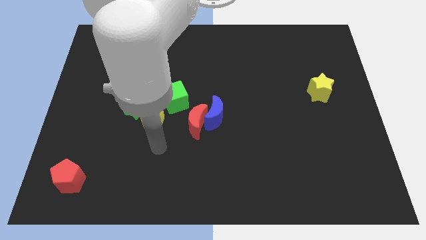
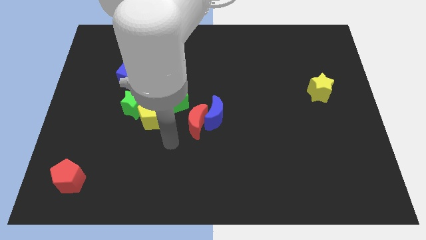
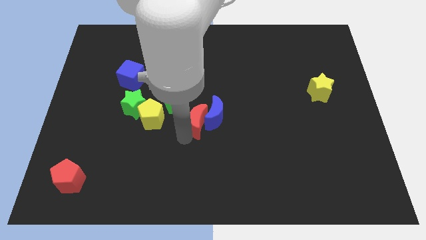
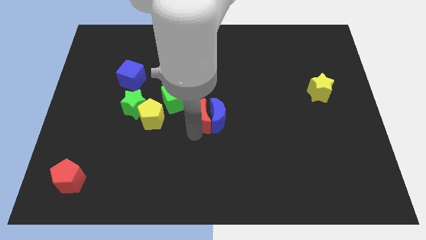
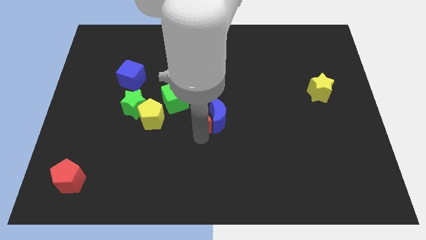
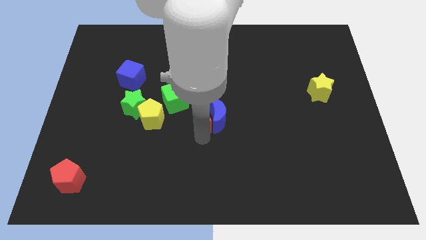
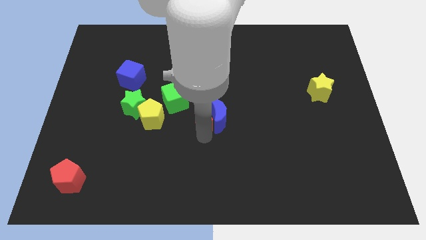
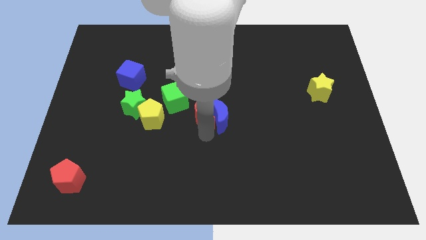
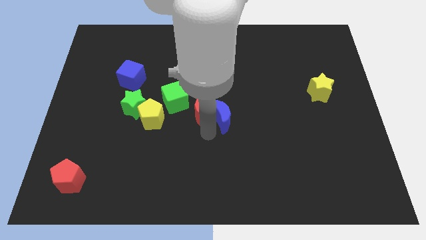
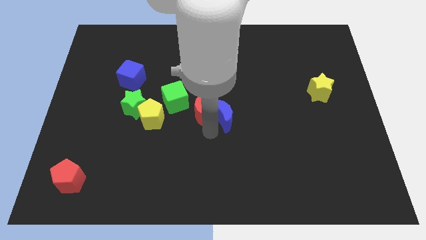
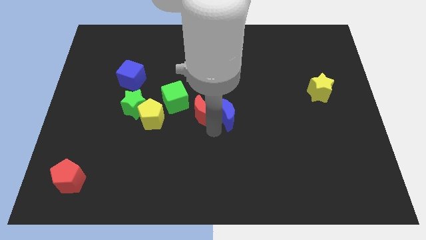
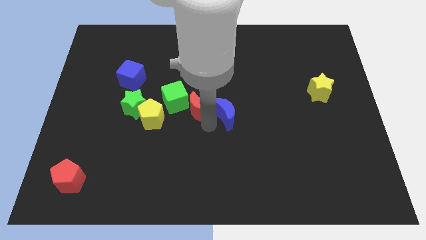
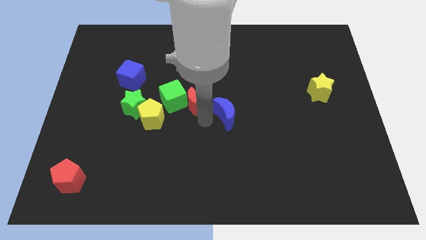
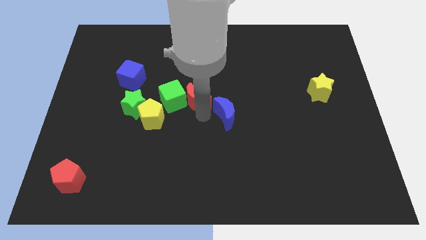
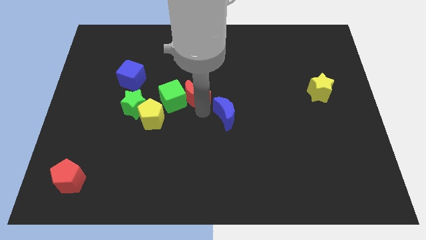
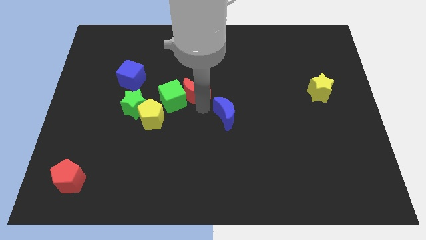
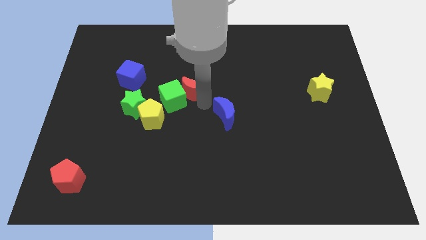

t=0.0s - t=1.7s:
separate the blue moon from the red moon

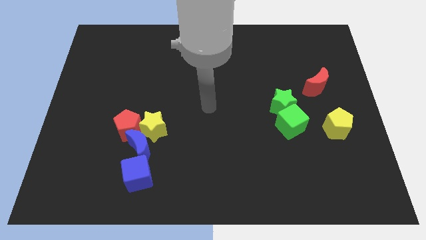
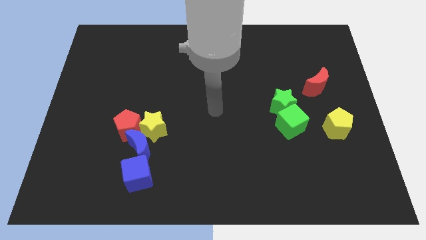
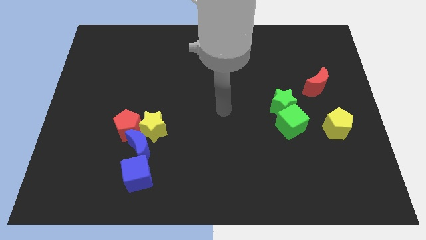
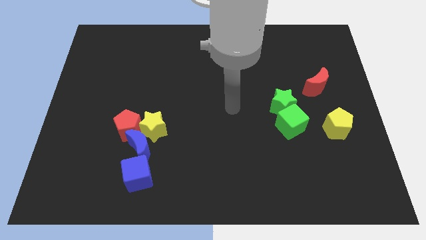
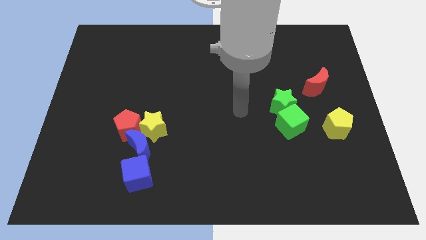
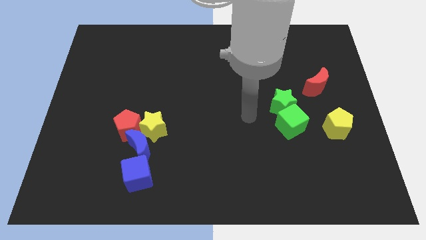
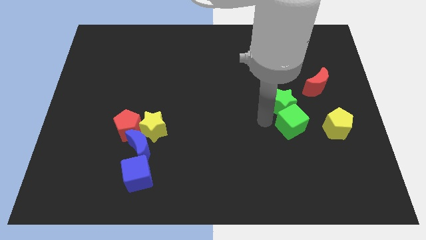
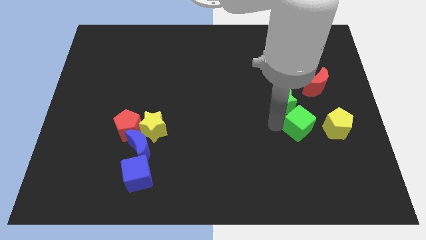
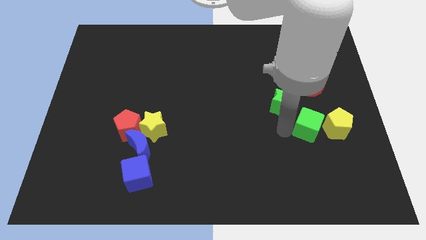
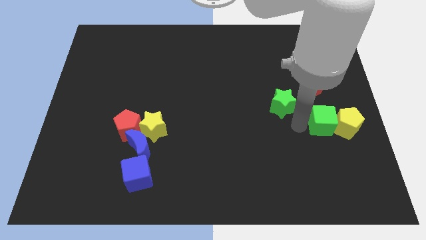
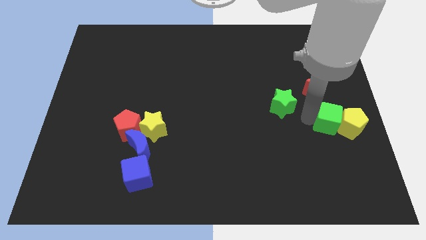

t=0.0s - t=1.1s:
pull the green star apart from the green cube

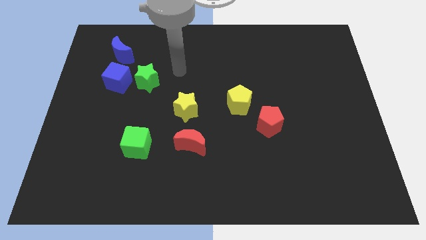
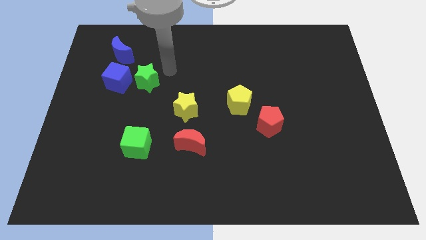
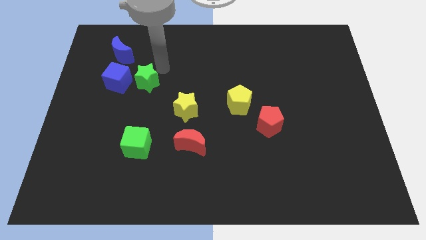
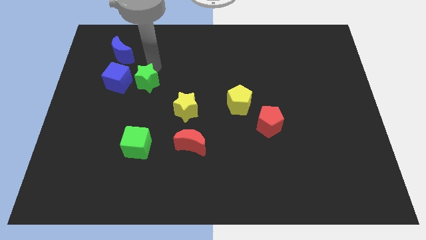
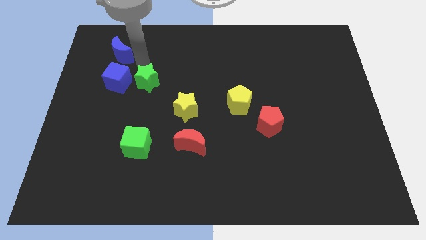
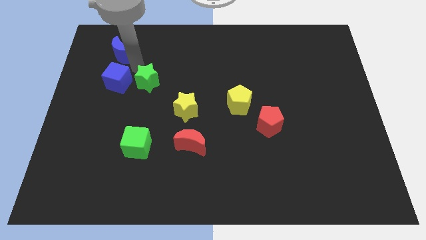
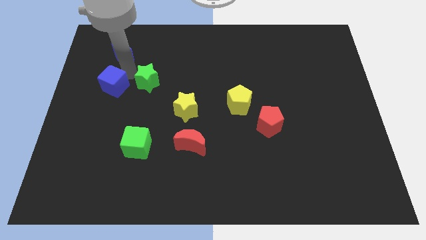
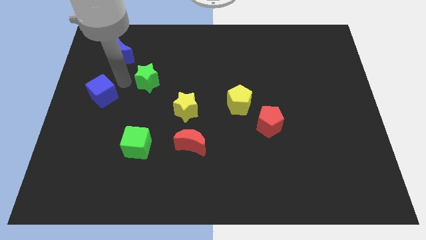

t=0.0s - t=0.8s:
separate the green star from the blue cube

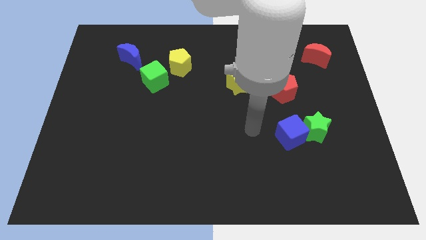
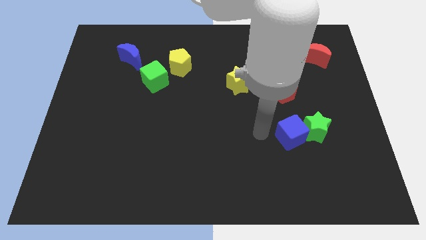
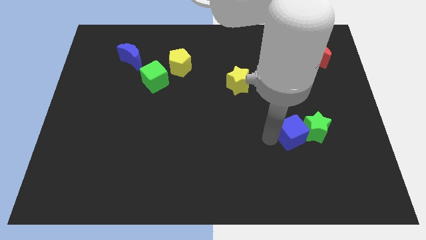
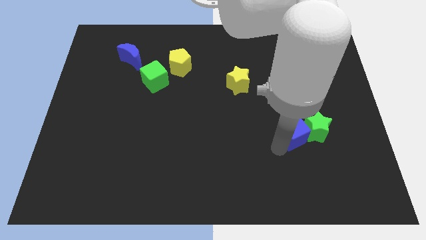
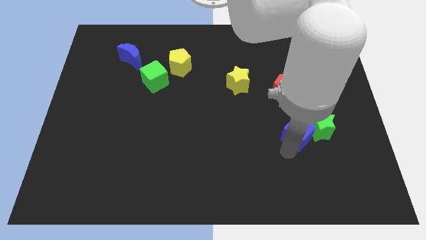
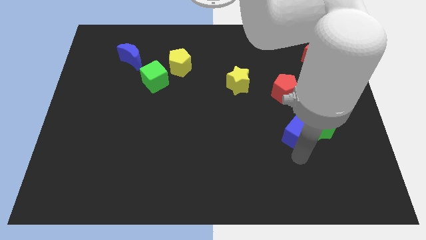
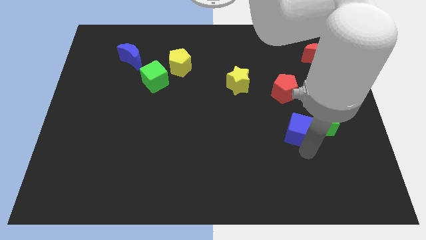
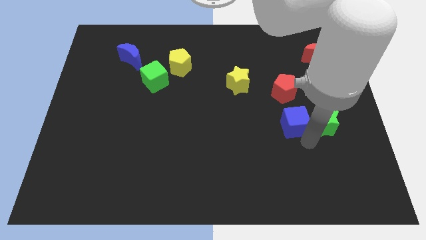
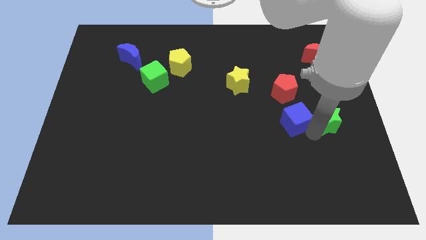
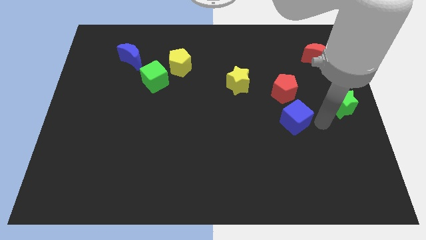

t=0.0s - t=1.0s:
pull the blue cube apart from the green star

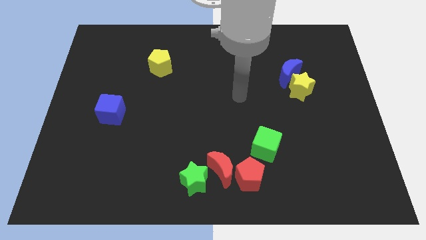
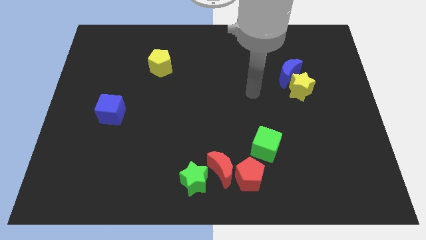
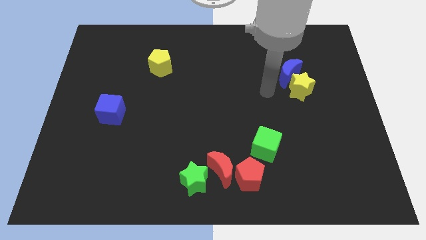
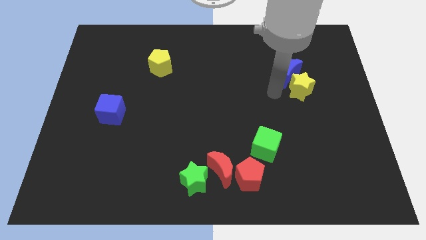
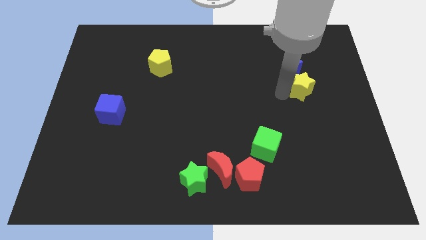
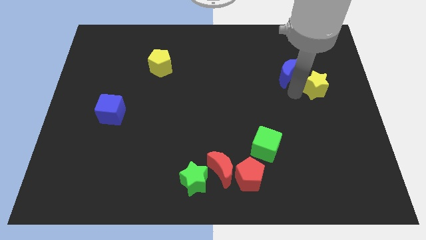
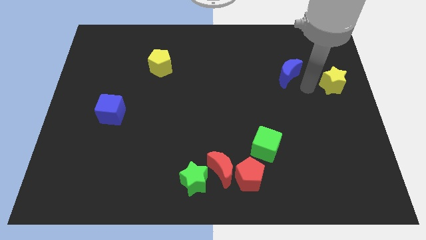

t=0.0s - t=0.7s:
pull the blue moon apart from the yellow star

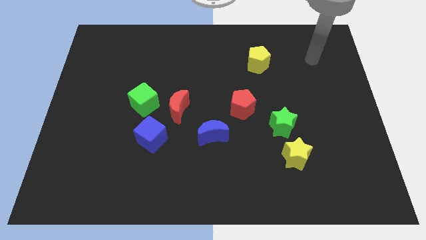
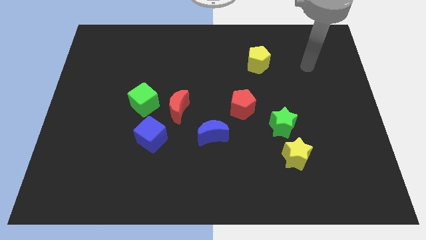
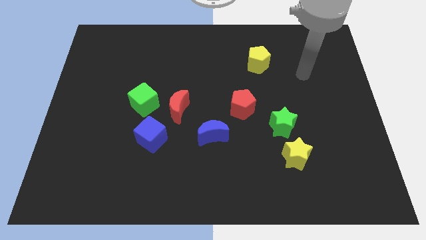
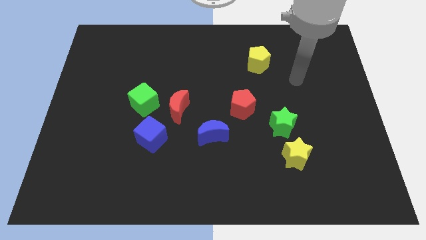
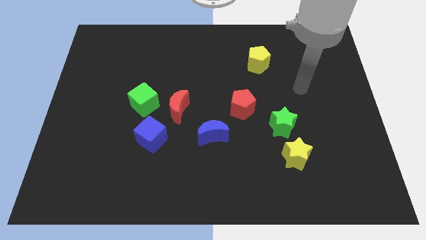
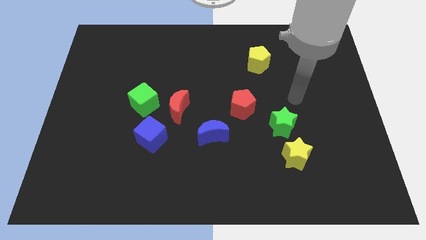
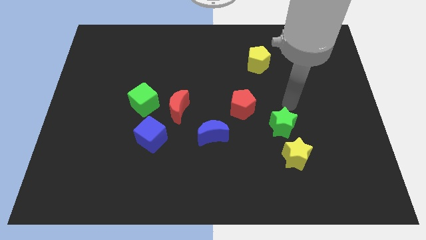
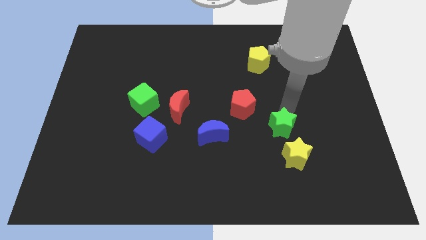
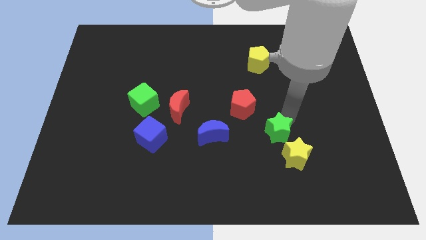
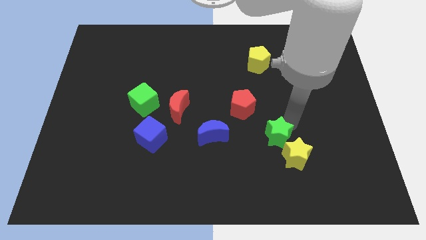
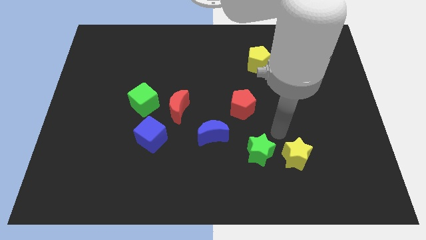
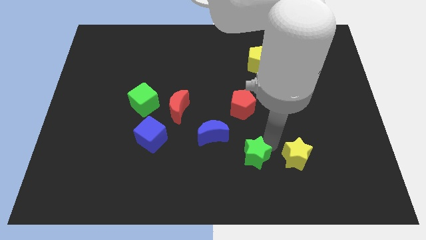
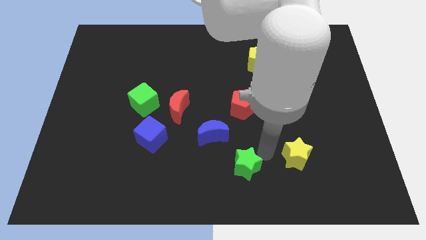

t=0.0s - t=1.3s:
pull the yellow star apart from the green star

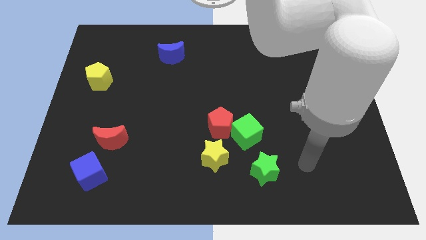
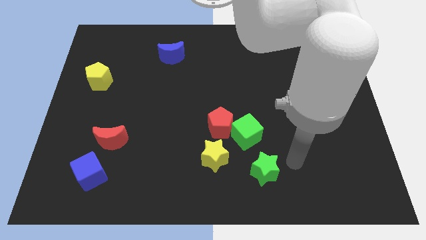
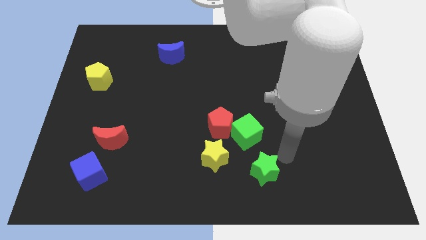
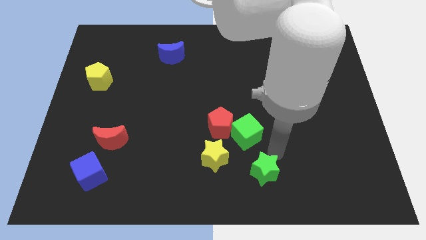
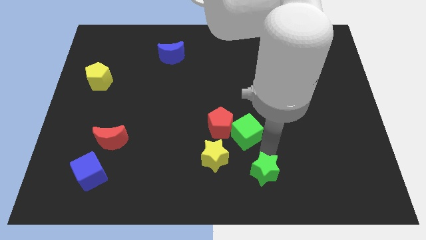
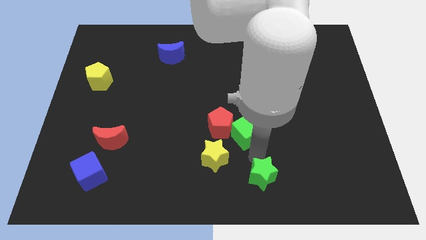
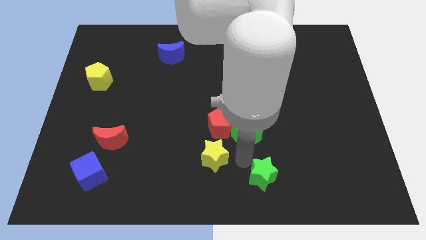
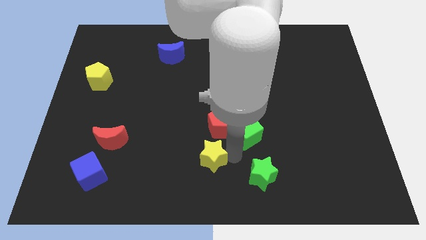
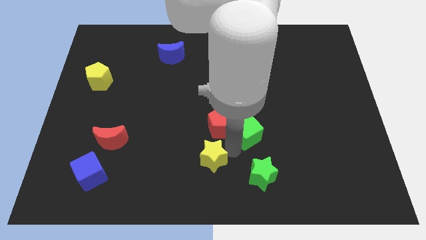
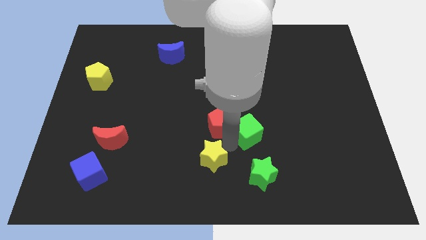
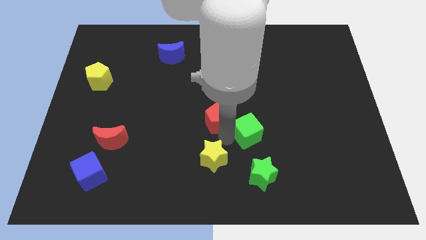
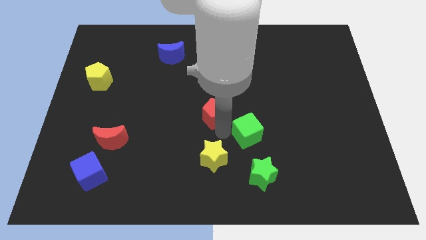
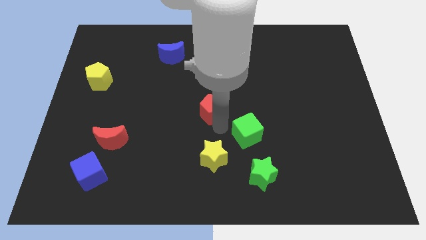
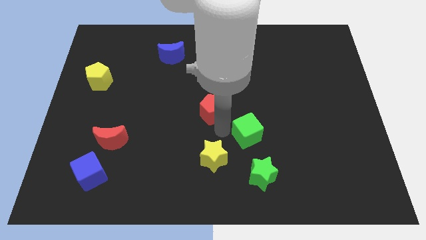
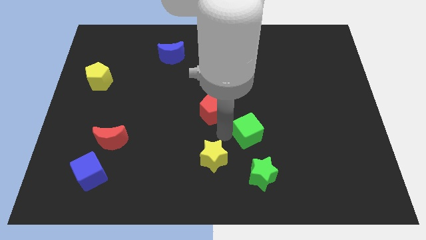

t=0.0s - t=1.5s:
separate the red pentagon from the green cube and yellow star

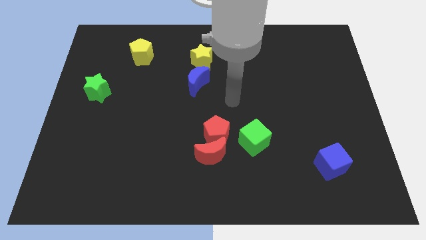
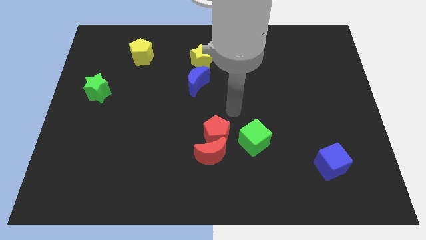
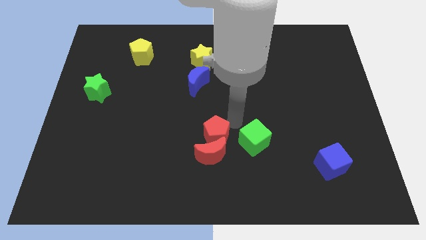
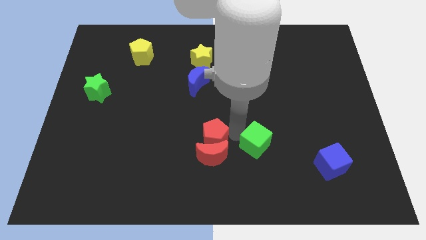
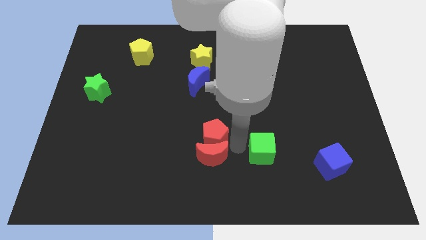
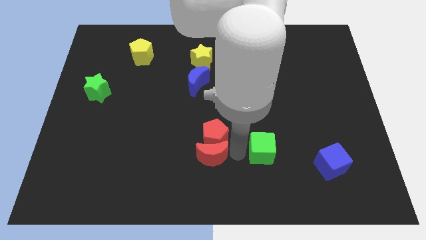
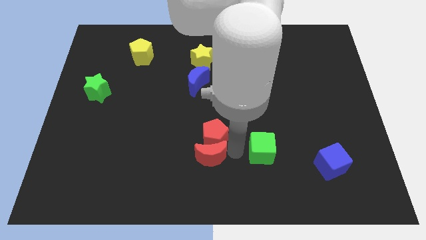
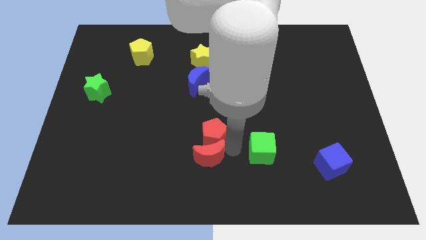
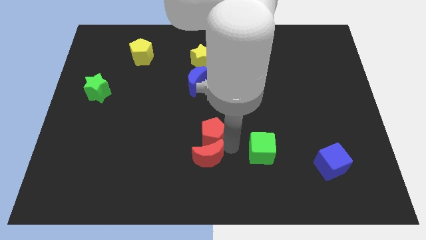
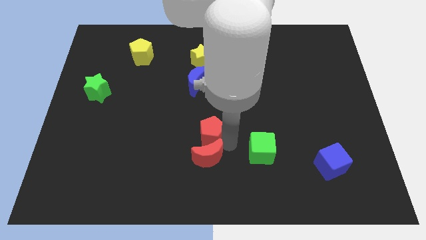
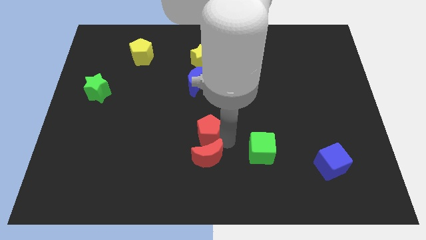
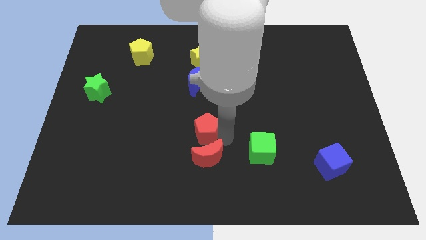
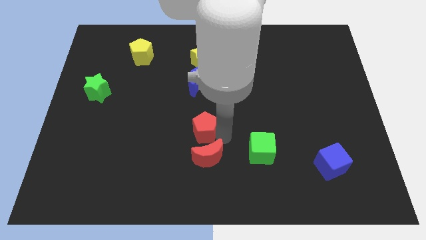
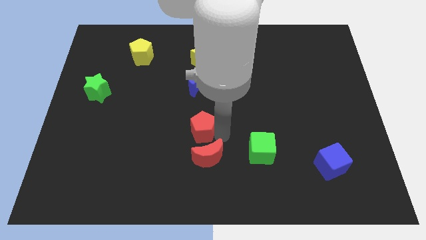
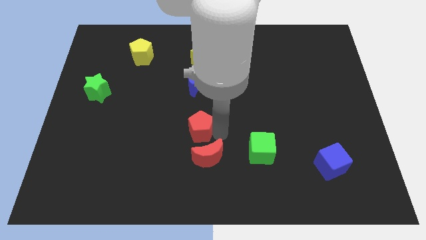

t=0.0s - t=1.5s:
separate the red pentagon from the red moon and green cube
